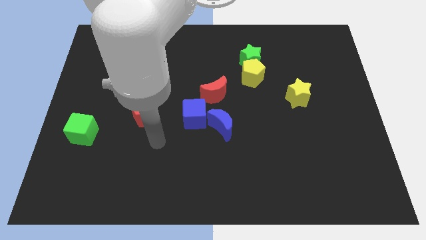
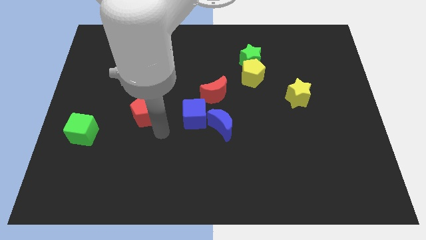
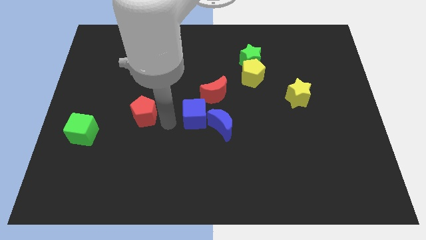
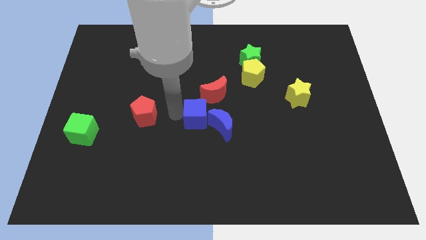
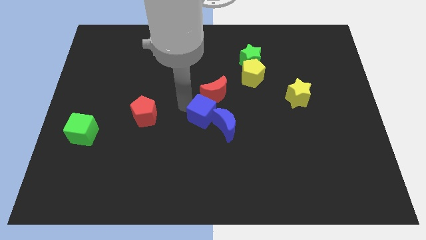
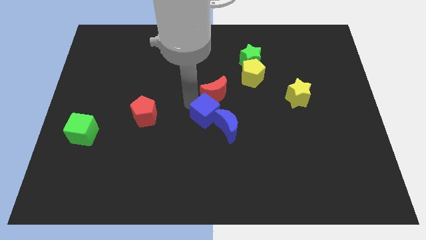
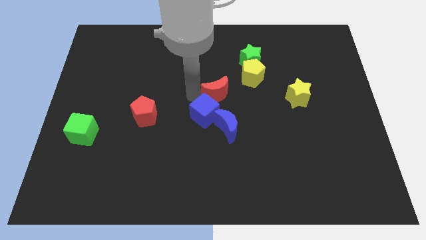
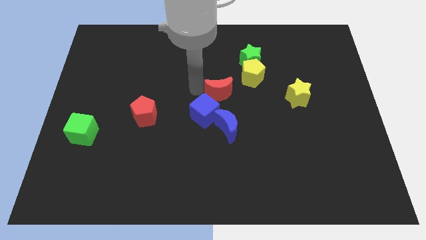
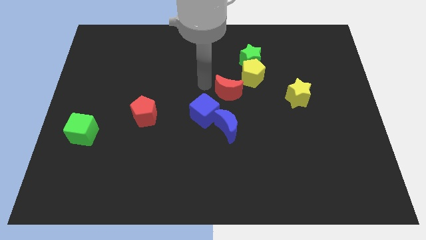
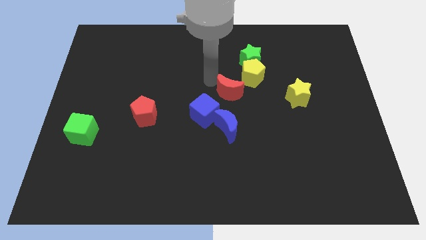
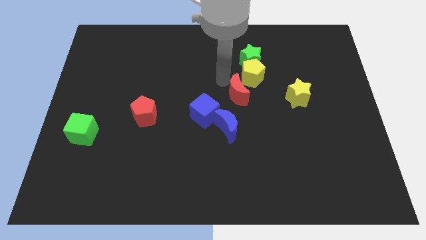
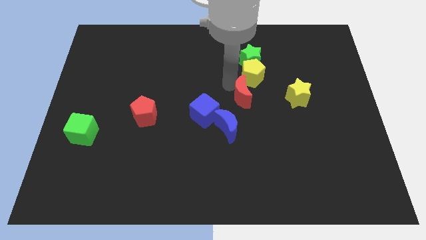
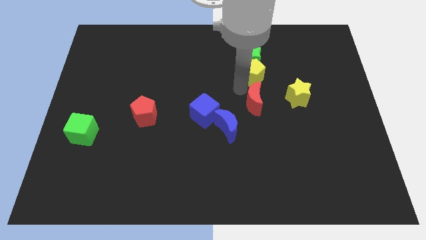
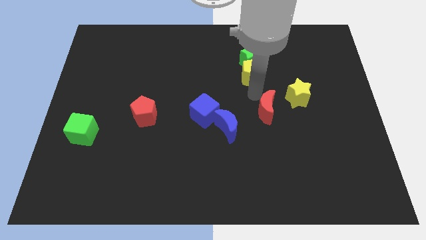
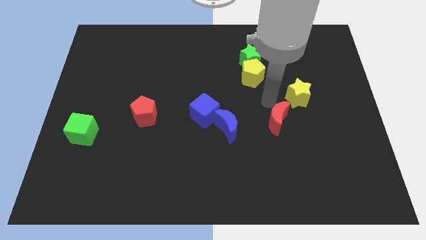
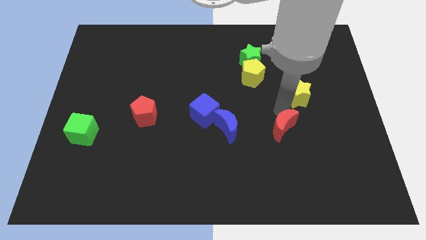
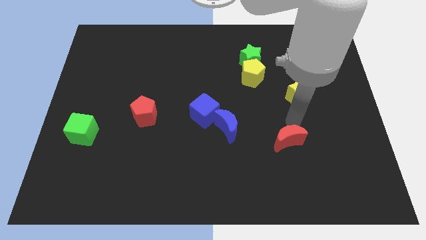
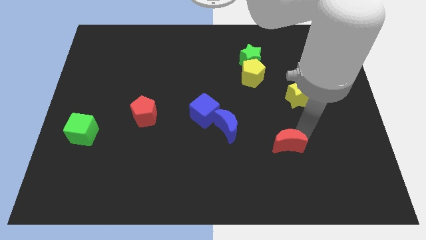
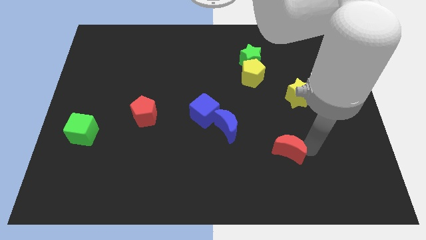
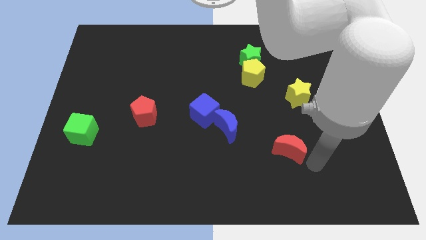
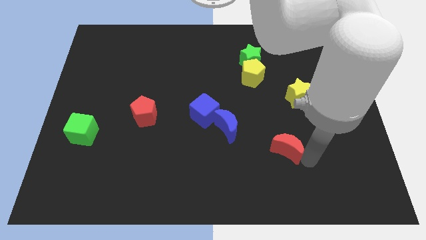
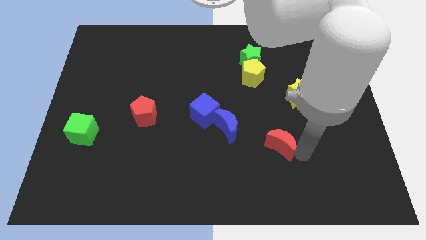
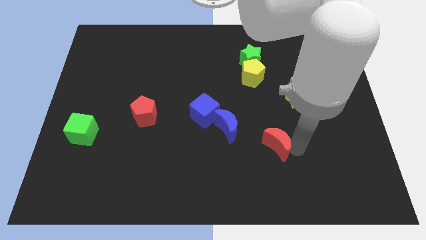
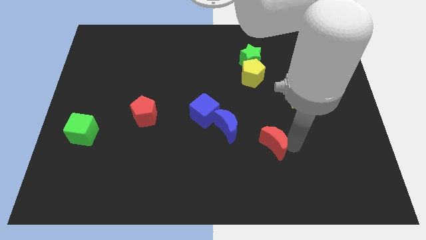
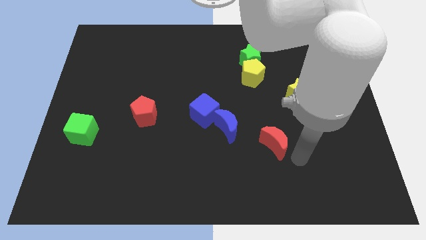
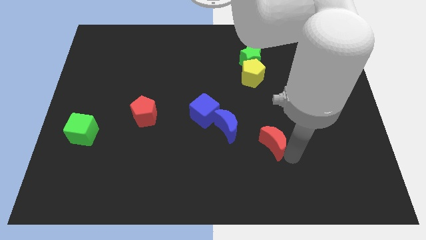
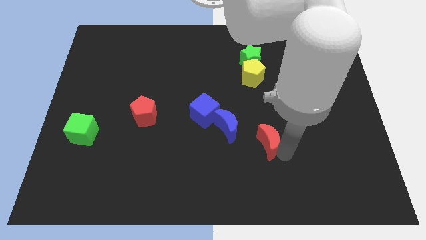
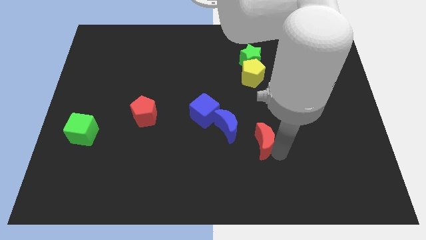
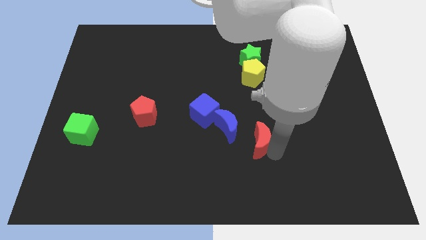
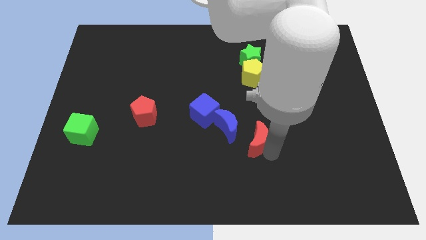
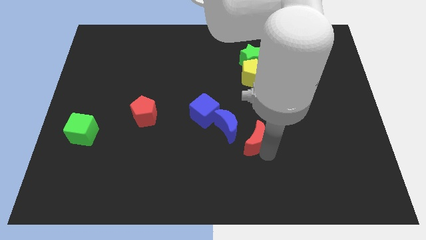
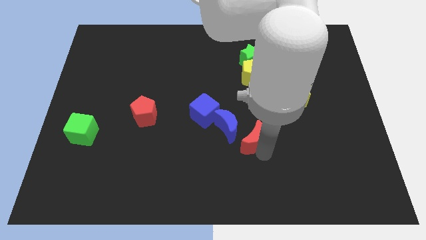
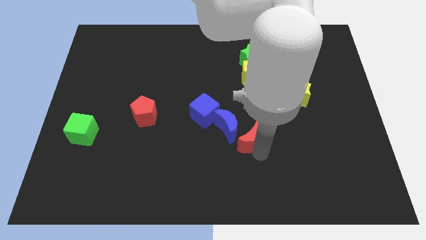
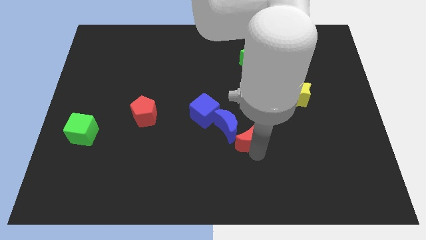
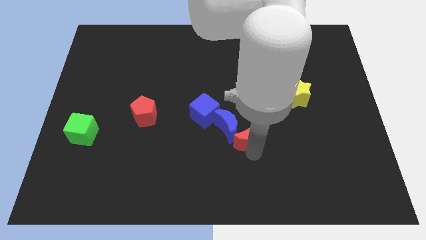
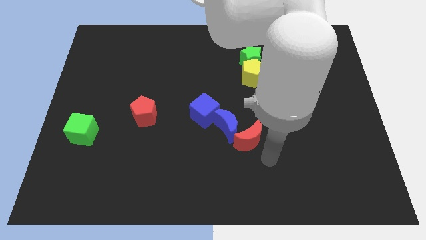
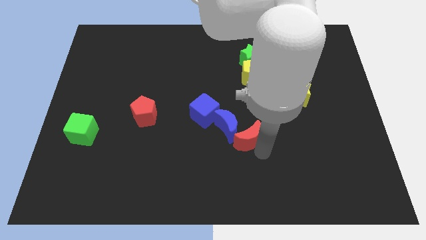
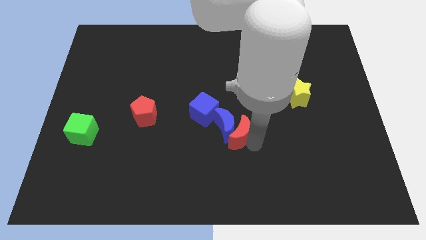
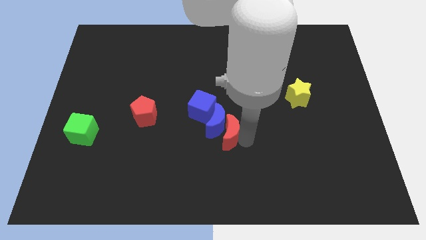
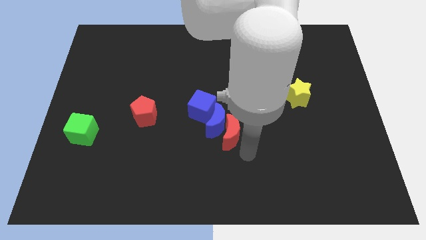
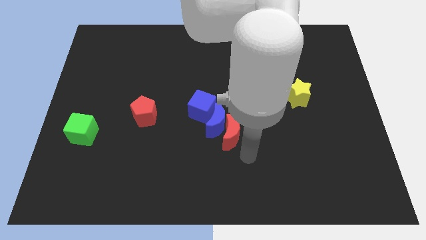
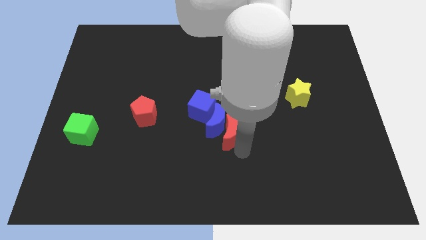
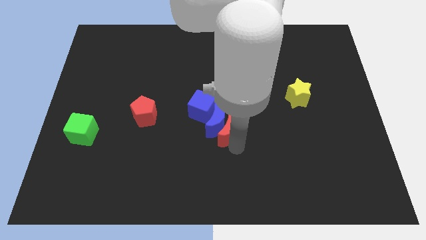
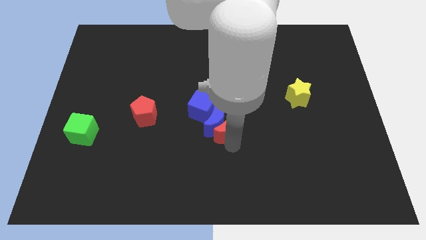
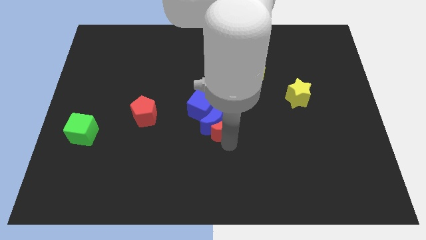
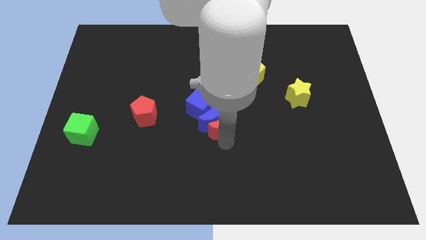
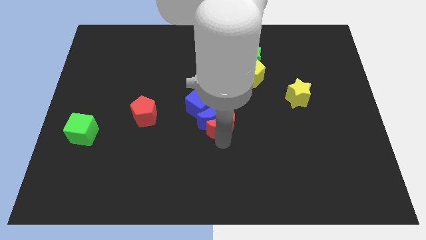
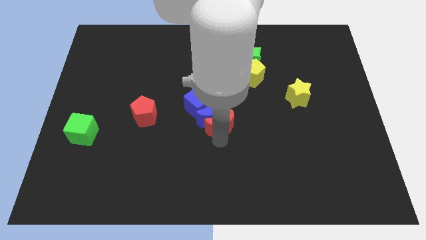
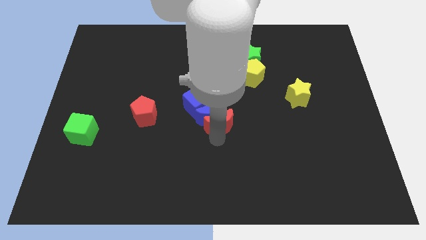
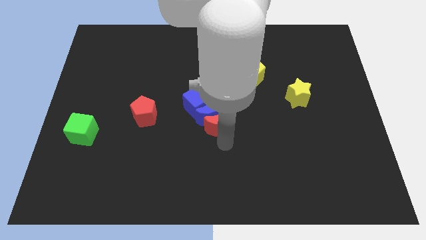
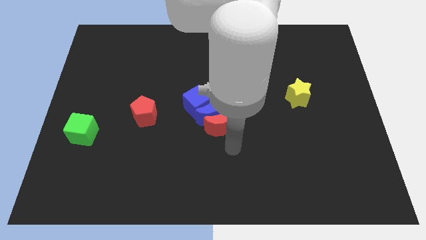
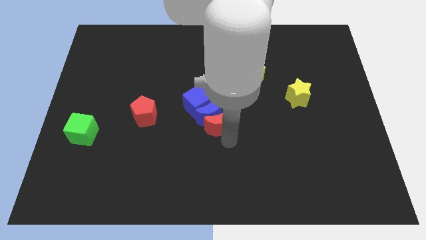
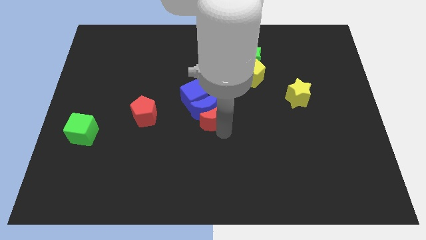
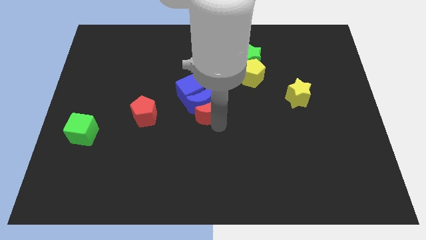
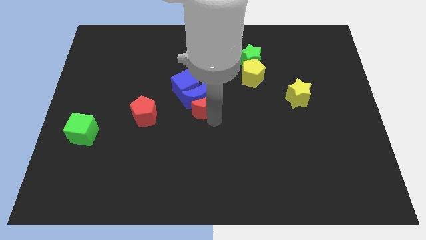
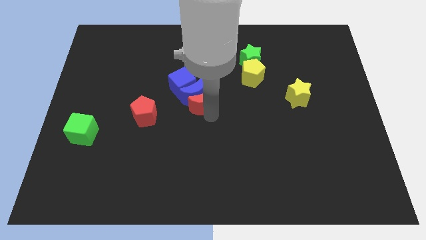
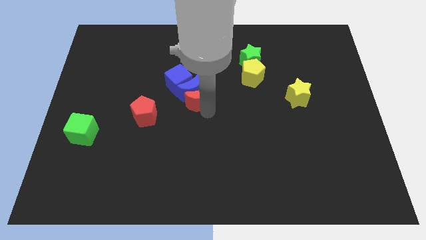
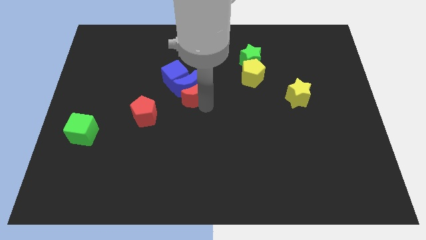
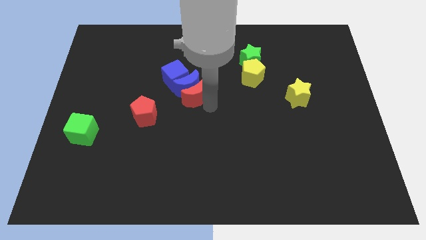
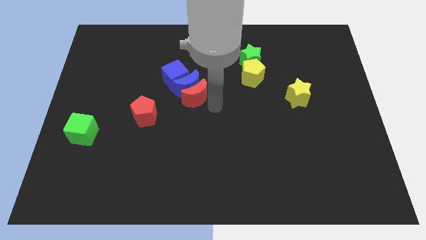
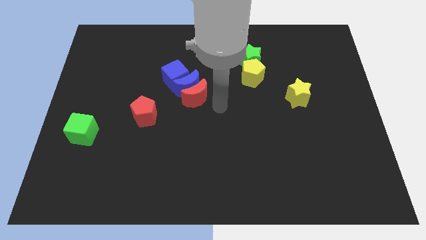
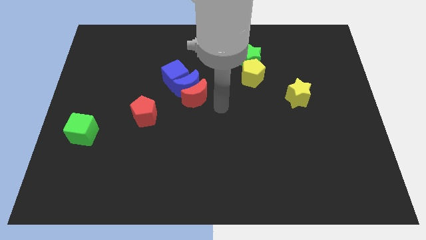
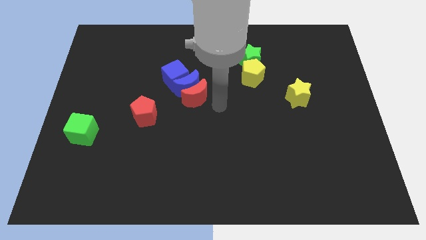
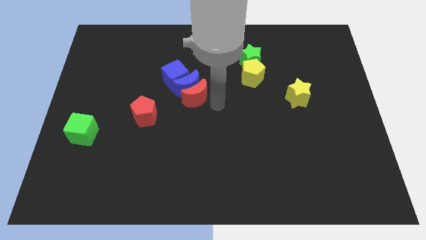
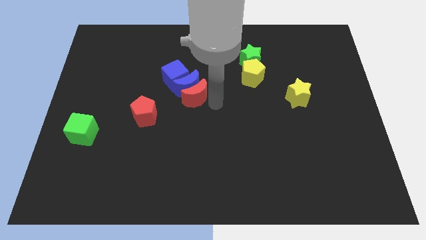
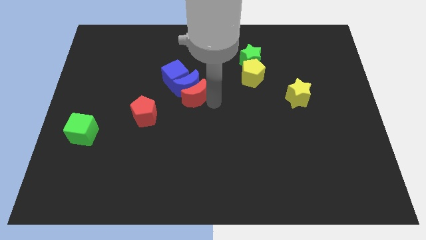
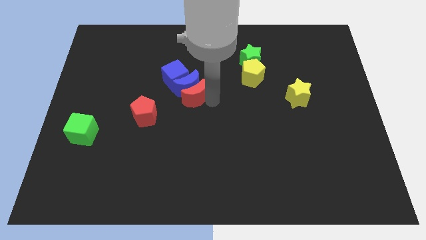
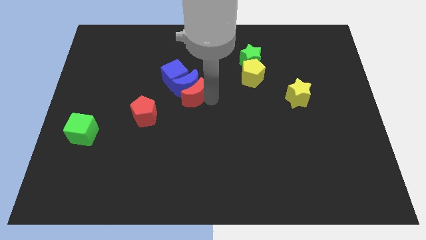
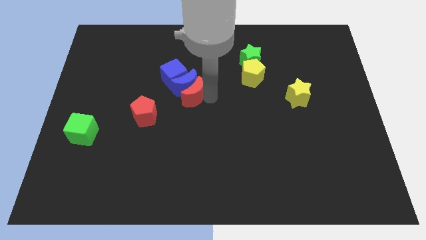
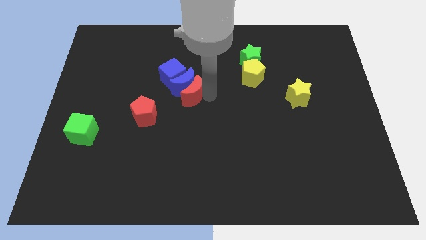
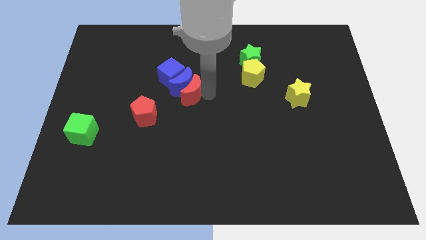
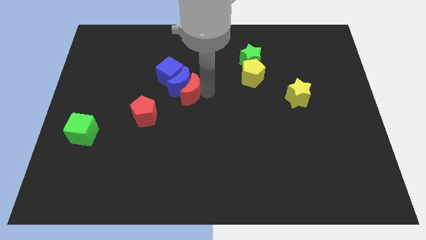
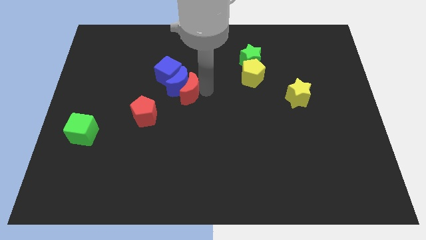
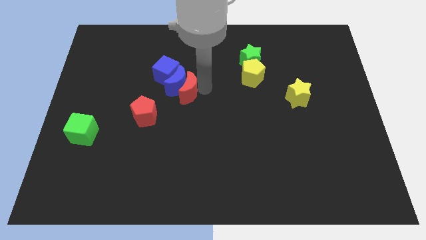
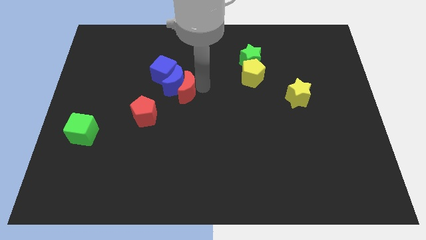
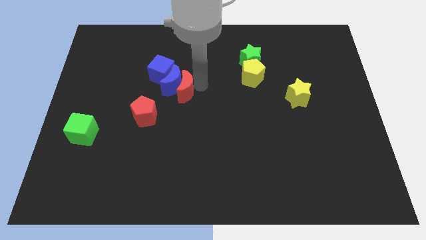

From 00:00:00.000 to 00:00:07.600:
slightly push the red moon left
